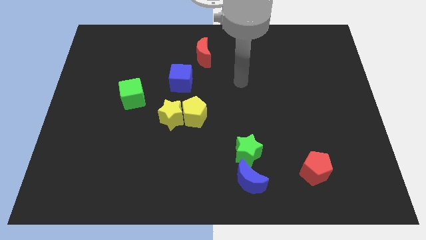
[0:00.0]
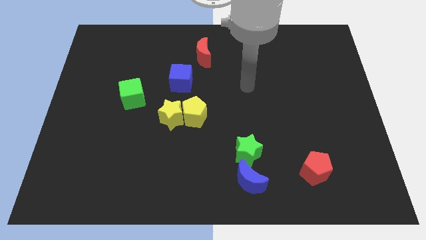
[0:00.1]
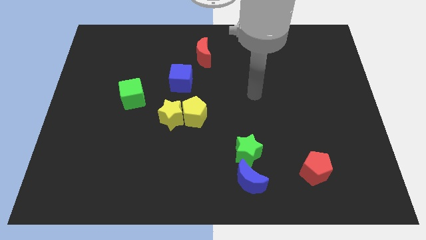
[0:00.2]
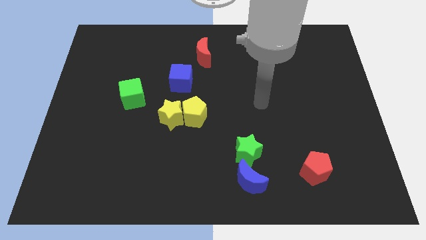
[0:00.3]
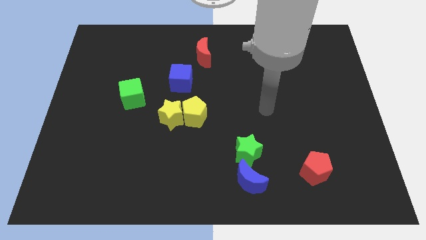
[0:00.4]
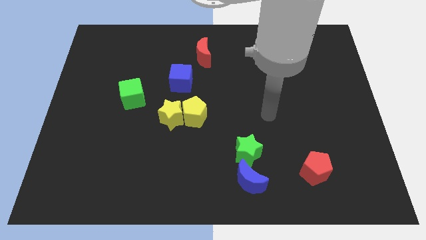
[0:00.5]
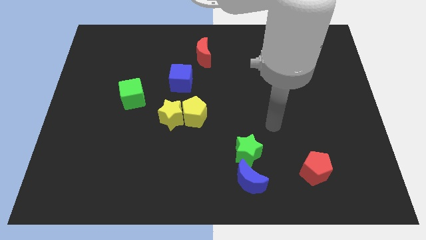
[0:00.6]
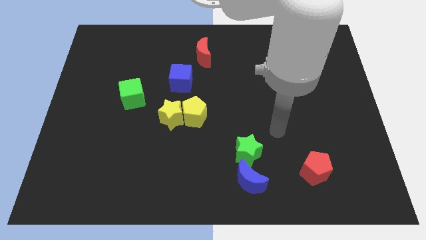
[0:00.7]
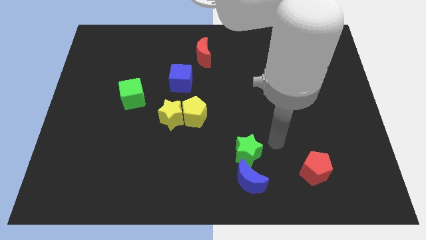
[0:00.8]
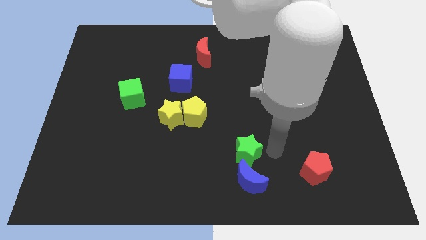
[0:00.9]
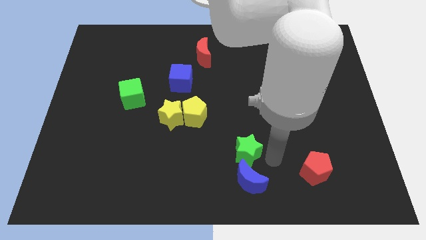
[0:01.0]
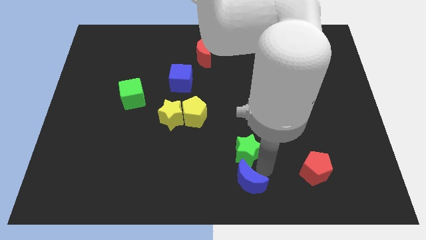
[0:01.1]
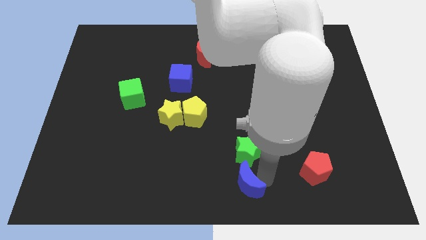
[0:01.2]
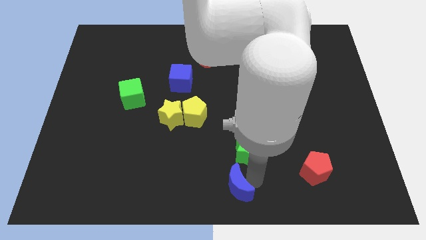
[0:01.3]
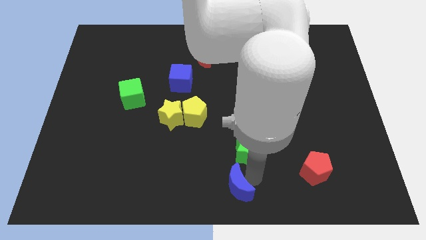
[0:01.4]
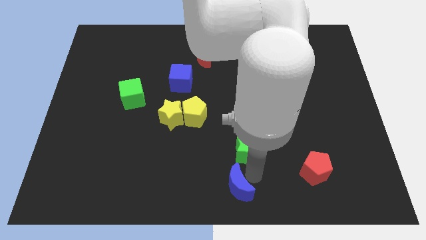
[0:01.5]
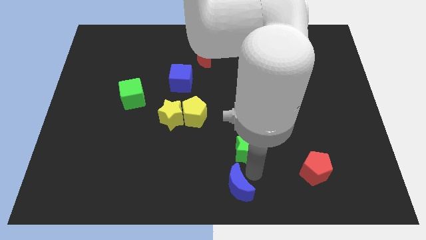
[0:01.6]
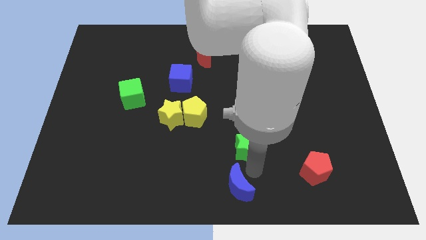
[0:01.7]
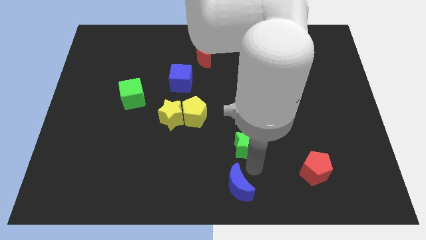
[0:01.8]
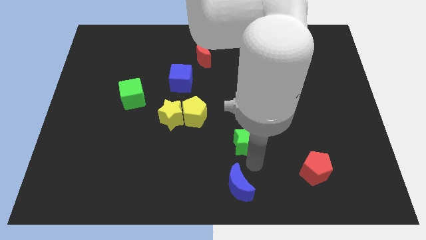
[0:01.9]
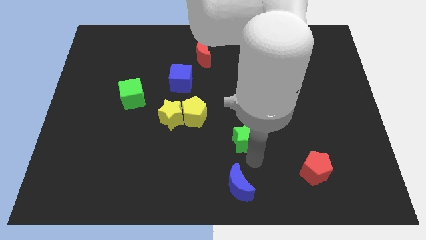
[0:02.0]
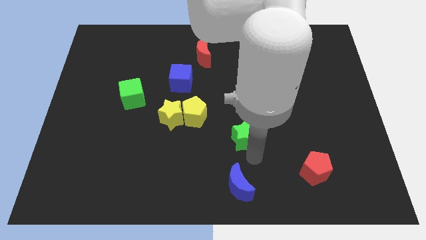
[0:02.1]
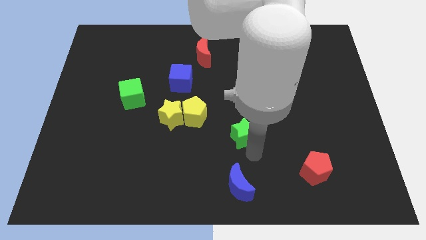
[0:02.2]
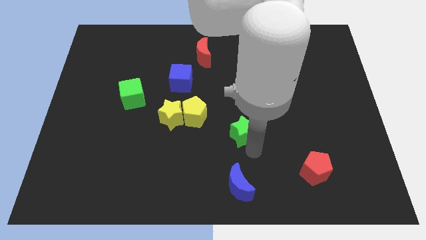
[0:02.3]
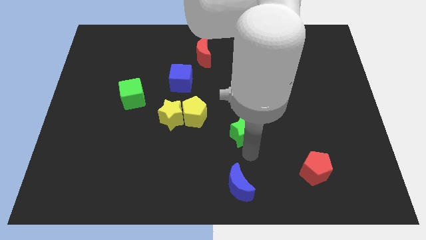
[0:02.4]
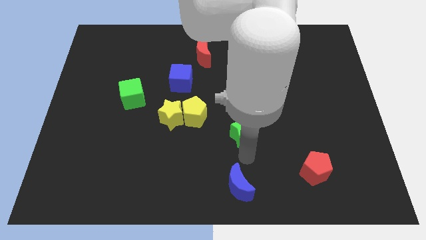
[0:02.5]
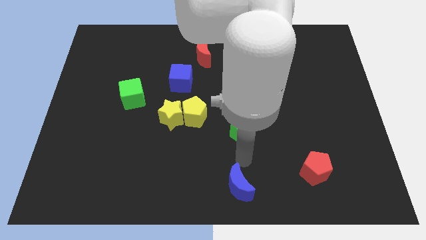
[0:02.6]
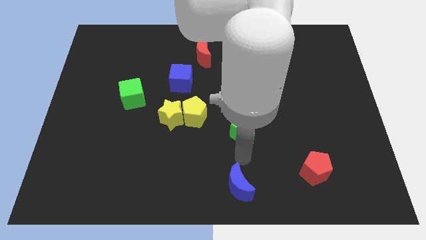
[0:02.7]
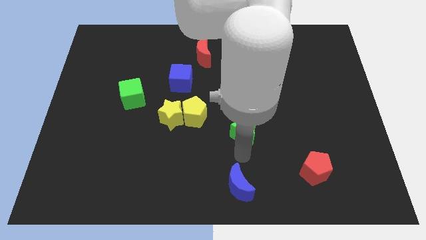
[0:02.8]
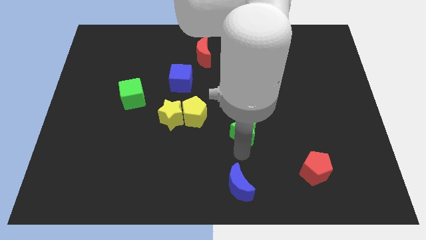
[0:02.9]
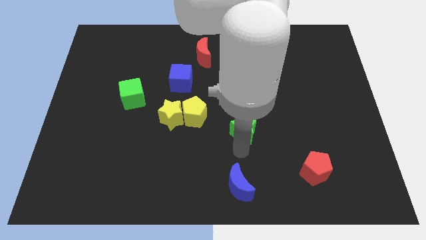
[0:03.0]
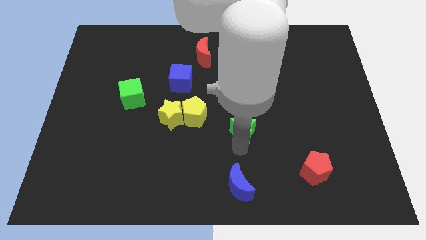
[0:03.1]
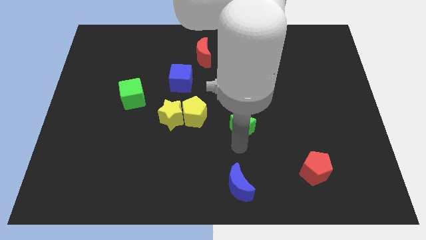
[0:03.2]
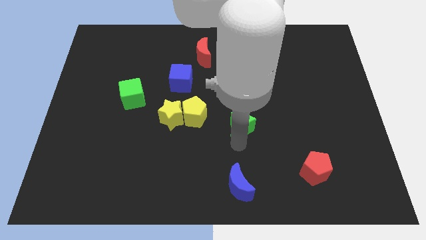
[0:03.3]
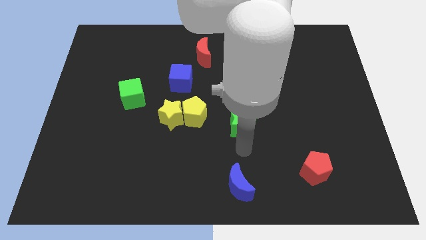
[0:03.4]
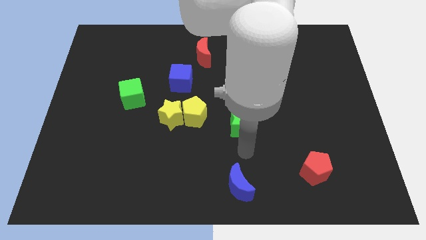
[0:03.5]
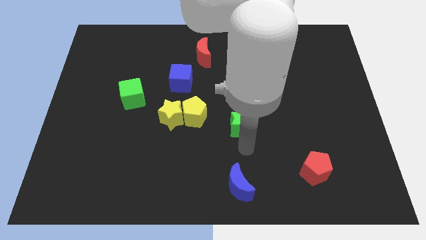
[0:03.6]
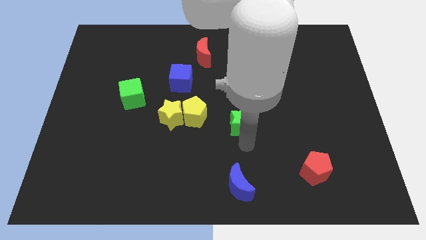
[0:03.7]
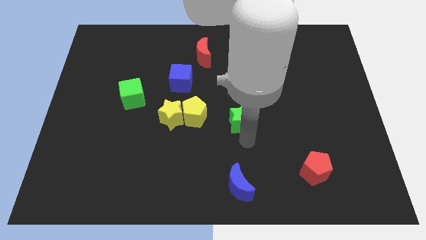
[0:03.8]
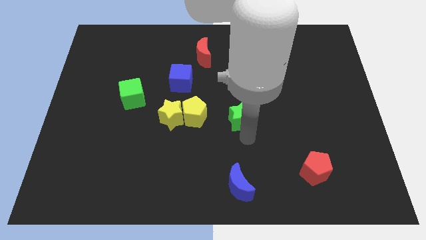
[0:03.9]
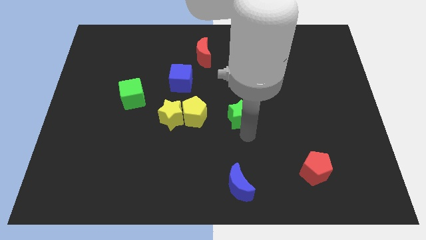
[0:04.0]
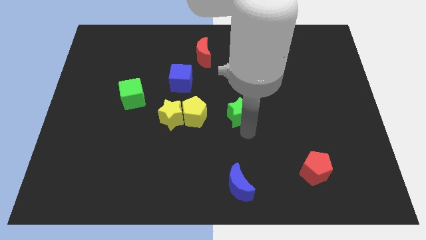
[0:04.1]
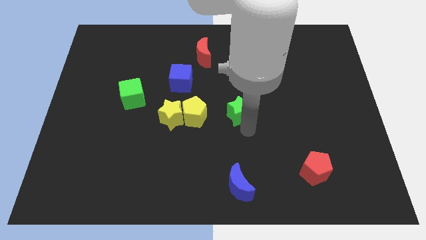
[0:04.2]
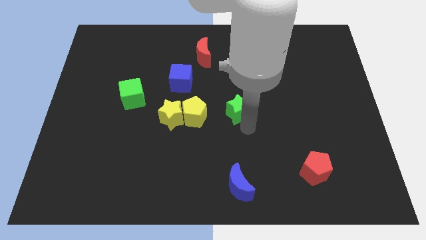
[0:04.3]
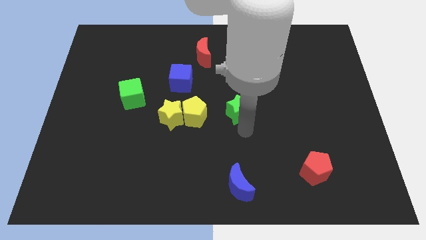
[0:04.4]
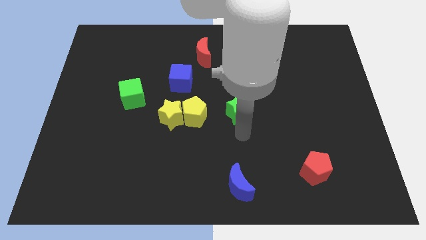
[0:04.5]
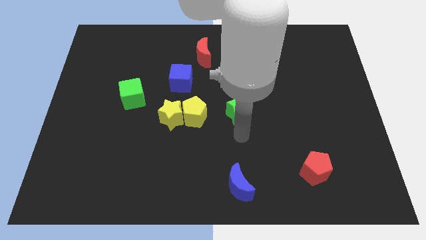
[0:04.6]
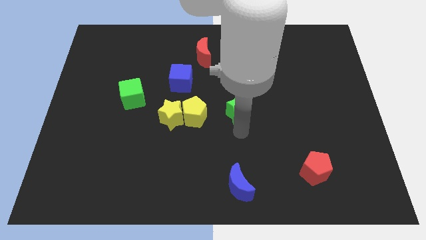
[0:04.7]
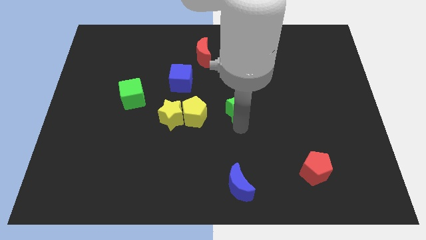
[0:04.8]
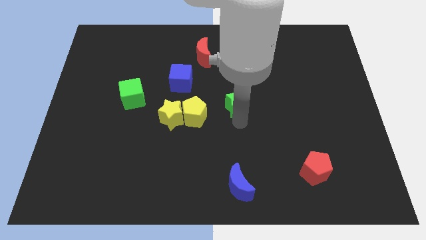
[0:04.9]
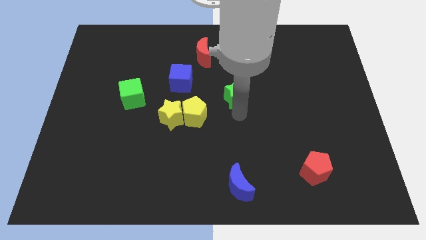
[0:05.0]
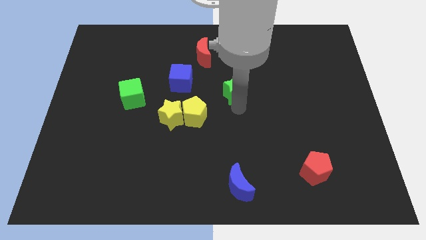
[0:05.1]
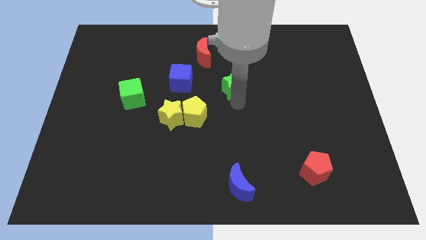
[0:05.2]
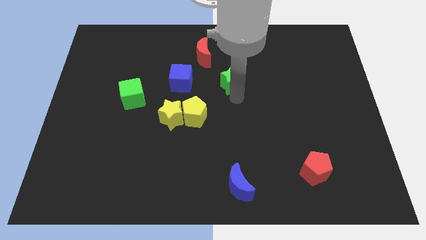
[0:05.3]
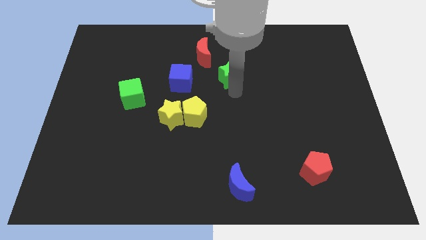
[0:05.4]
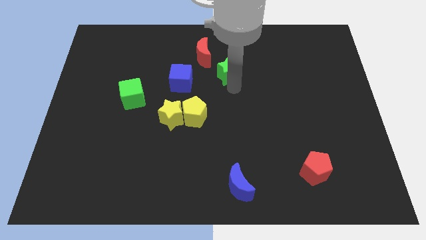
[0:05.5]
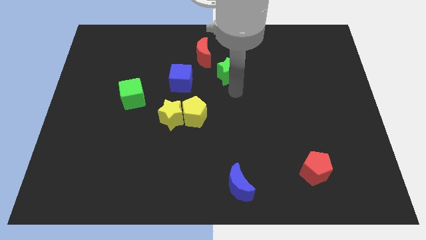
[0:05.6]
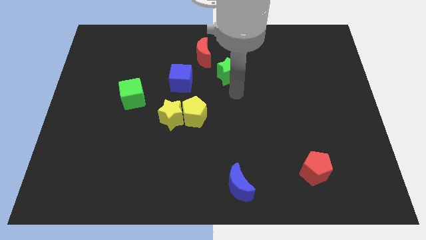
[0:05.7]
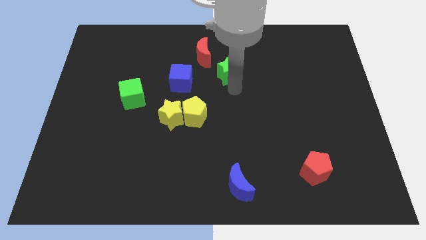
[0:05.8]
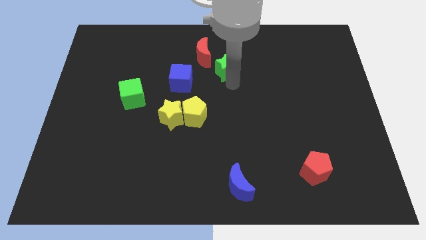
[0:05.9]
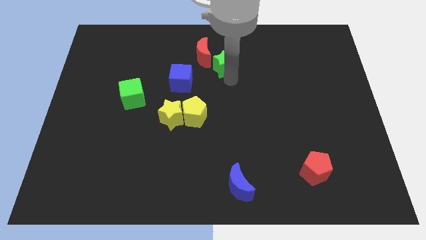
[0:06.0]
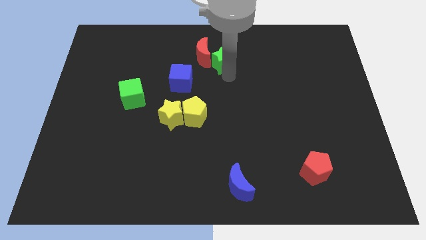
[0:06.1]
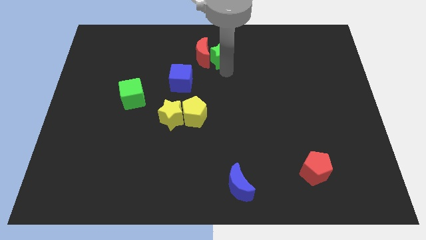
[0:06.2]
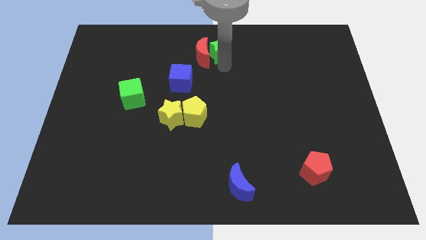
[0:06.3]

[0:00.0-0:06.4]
push the green star to the towards your base
